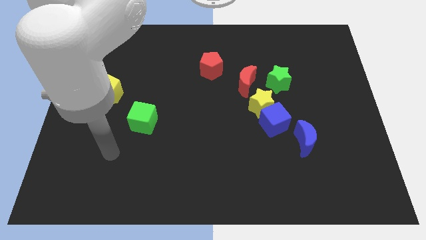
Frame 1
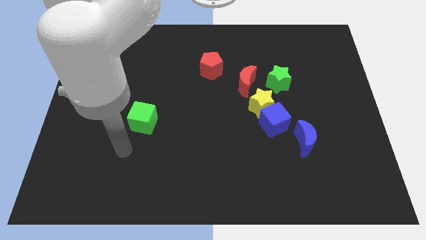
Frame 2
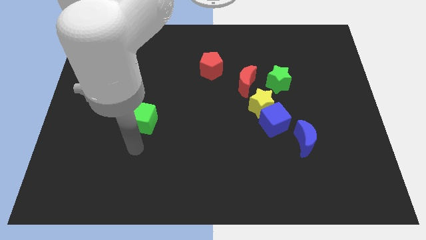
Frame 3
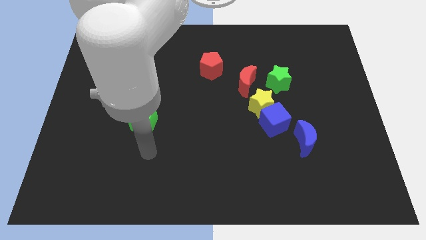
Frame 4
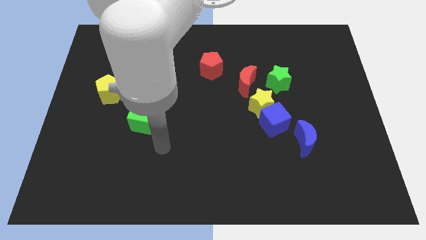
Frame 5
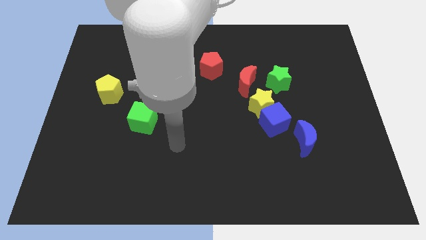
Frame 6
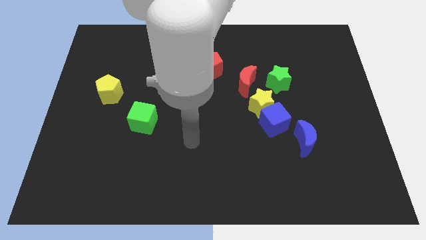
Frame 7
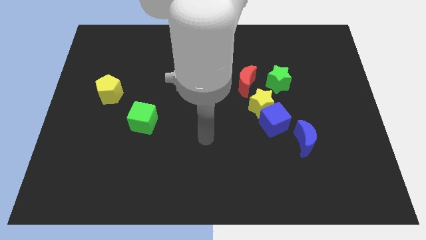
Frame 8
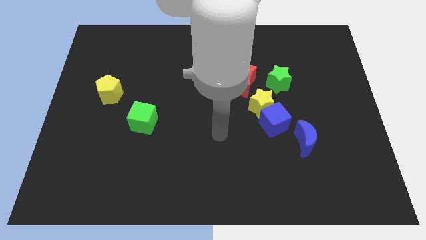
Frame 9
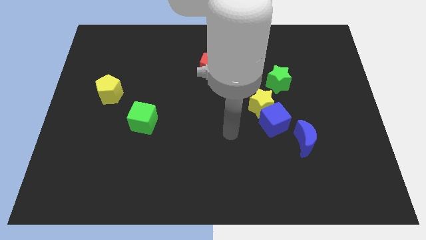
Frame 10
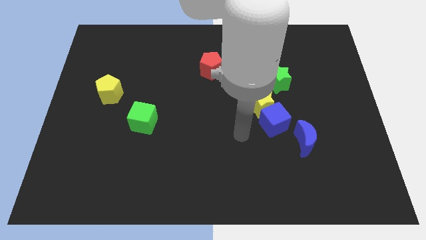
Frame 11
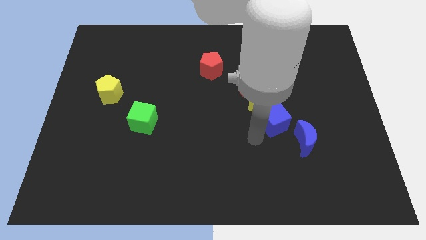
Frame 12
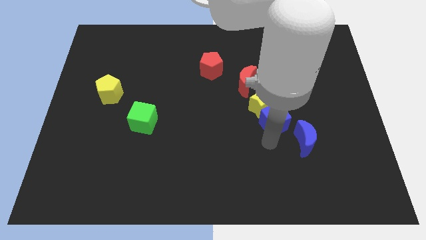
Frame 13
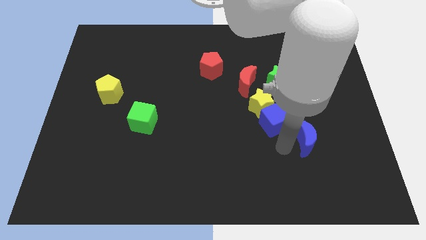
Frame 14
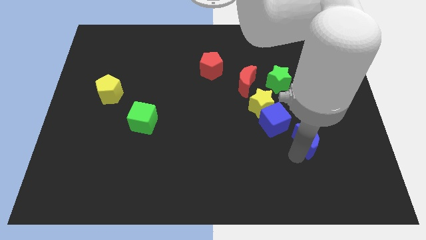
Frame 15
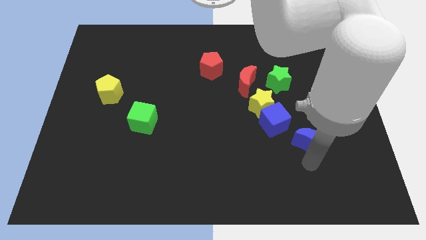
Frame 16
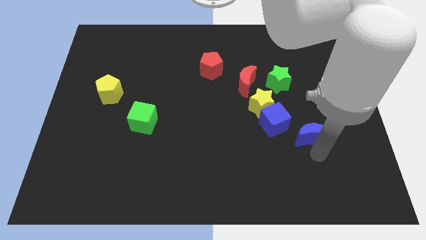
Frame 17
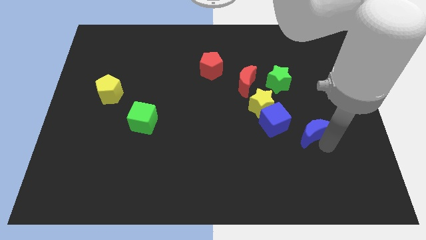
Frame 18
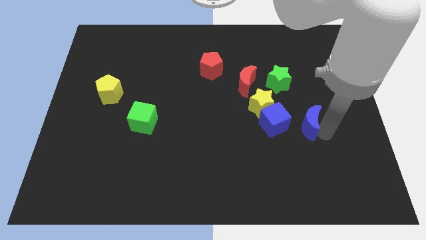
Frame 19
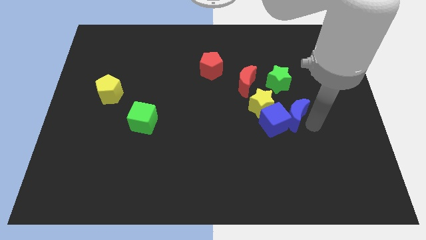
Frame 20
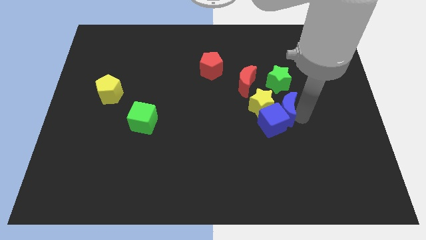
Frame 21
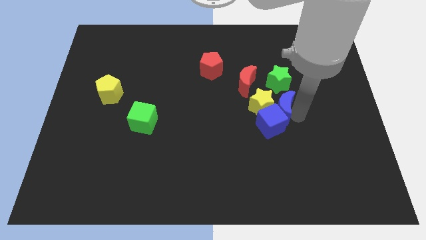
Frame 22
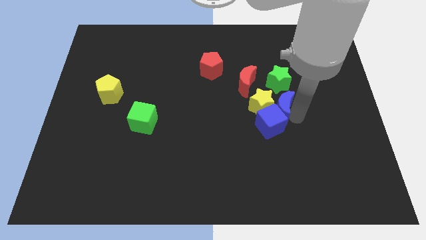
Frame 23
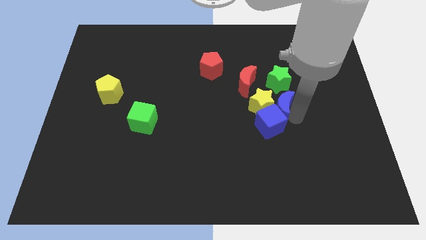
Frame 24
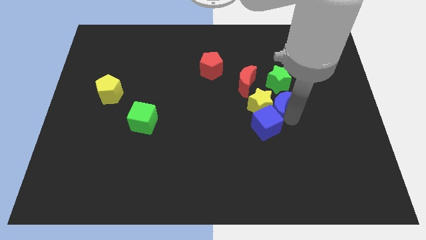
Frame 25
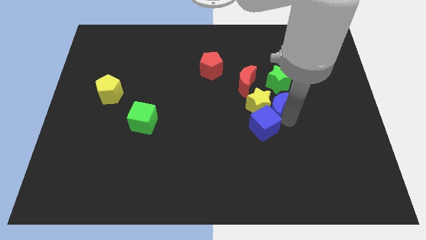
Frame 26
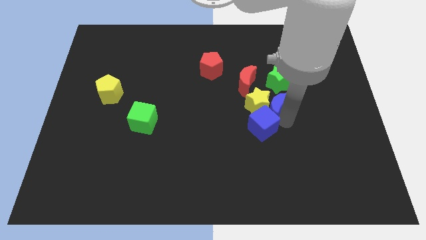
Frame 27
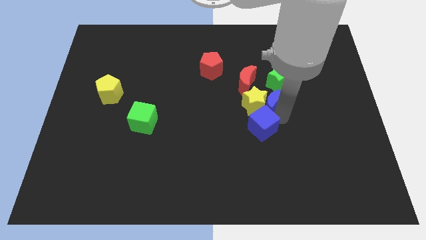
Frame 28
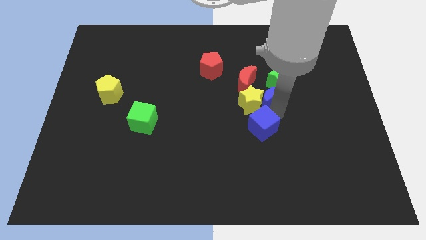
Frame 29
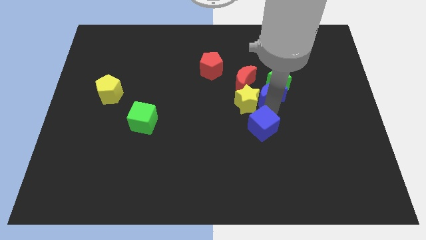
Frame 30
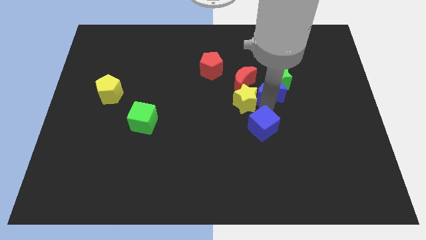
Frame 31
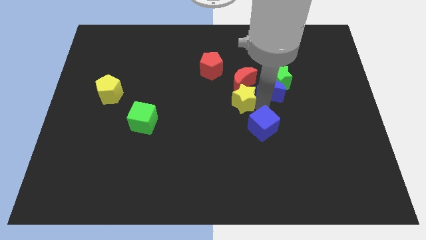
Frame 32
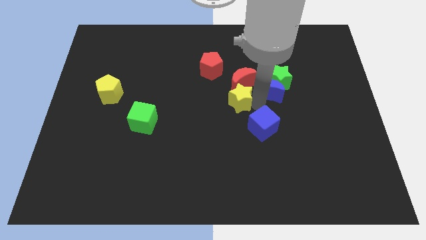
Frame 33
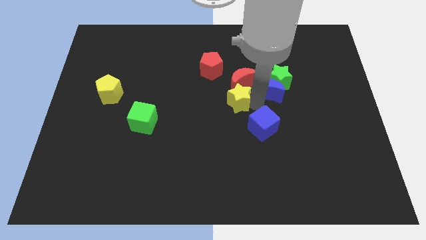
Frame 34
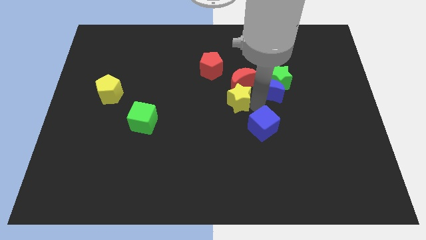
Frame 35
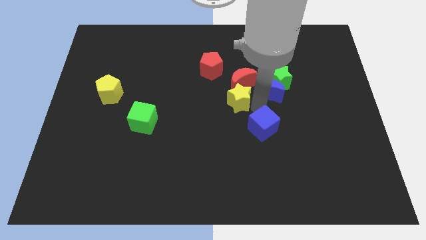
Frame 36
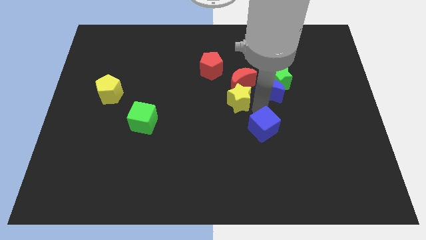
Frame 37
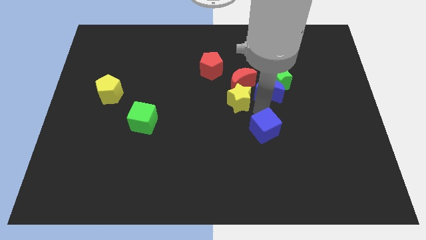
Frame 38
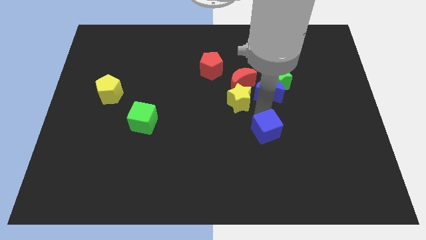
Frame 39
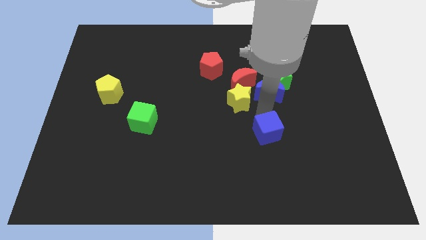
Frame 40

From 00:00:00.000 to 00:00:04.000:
move the blue cube away from the yellow star and blue moon

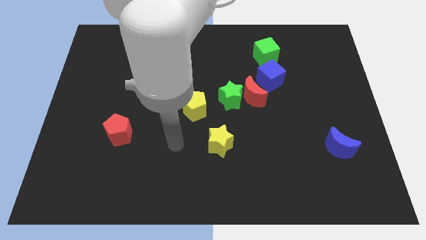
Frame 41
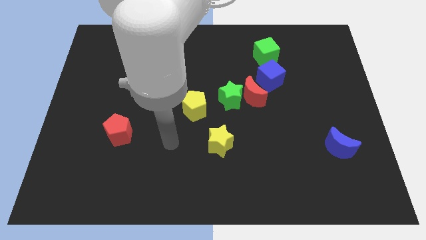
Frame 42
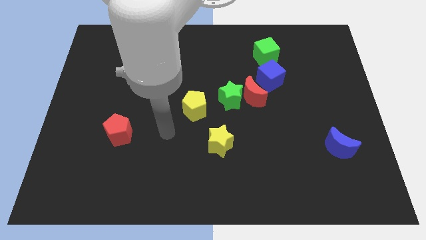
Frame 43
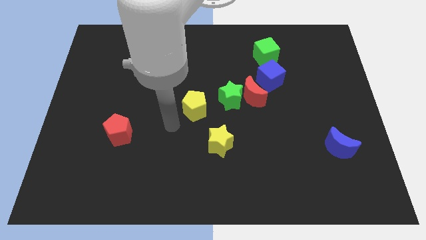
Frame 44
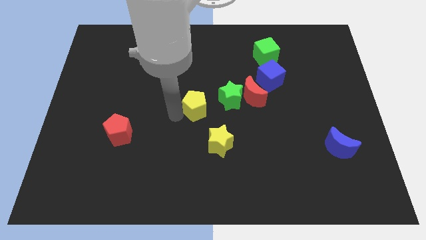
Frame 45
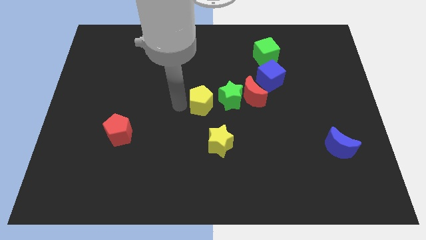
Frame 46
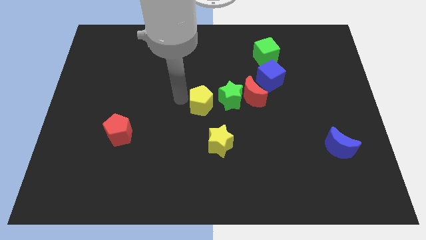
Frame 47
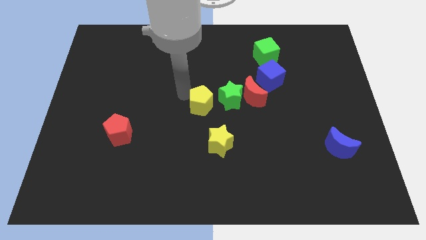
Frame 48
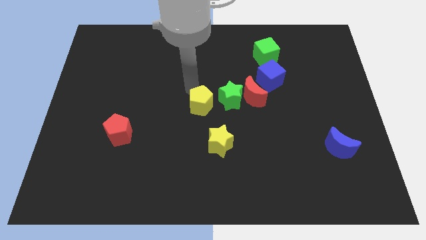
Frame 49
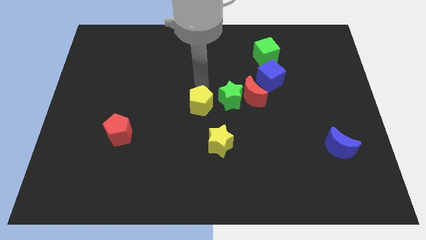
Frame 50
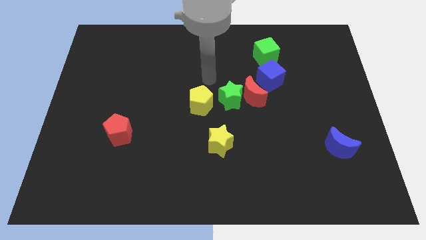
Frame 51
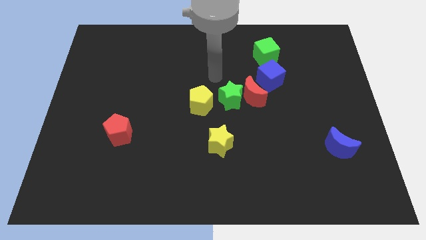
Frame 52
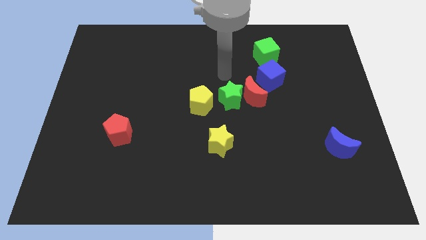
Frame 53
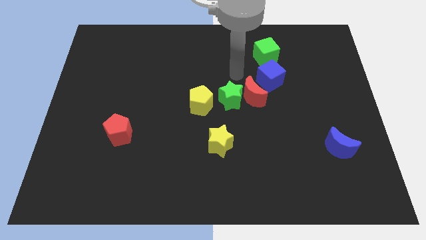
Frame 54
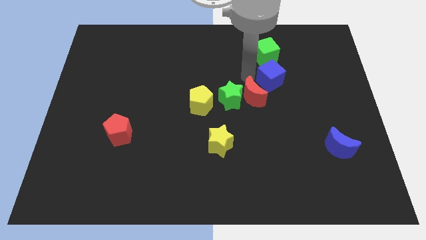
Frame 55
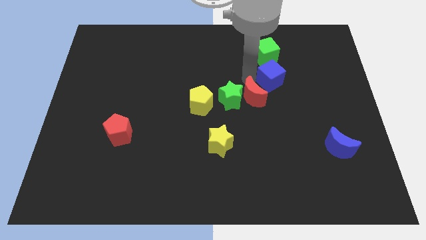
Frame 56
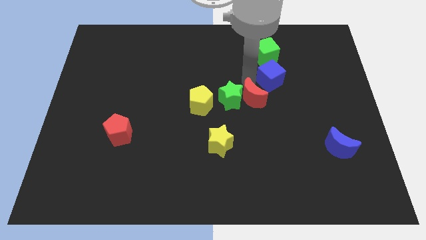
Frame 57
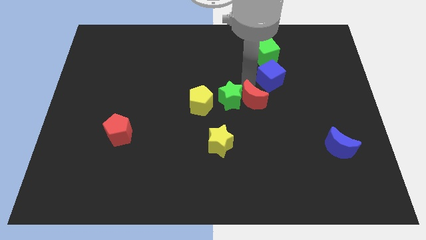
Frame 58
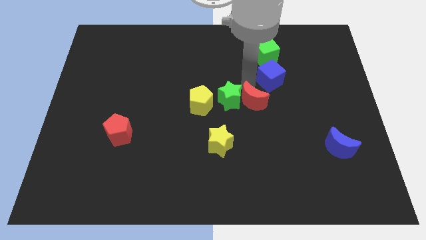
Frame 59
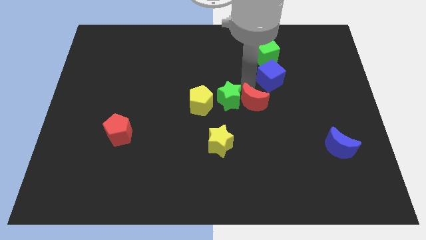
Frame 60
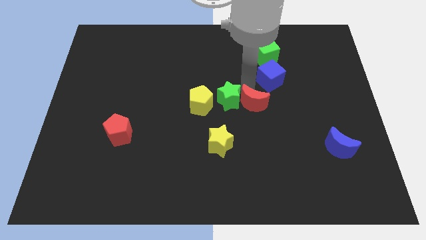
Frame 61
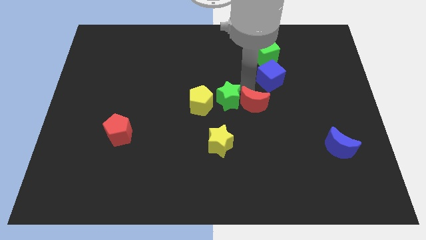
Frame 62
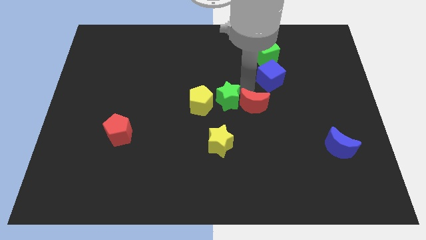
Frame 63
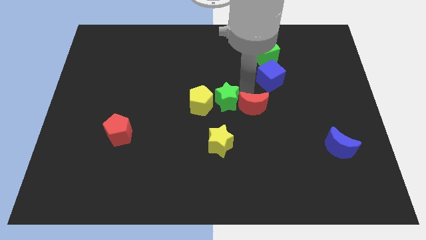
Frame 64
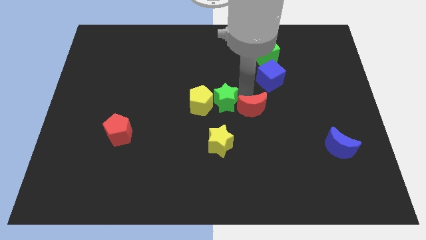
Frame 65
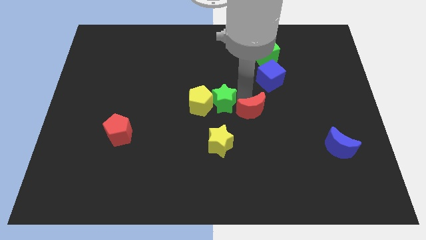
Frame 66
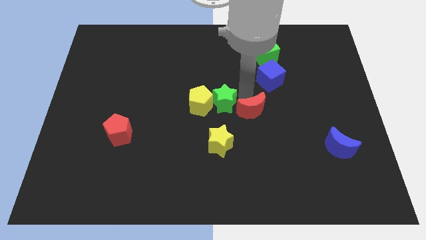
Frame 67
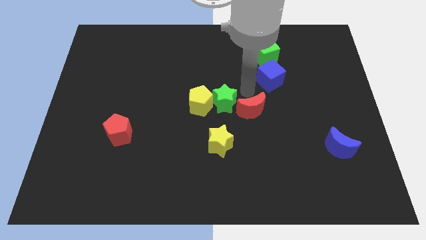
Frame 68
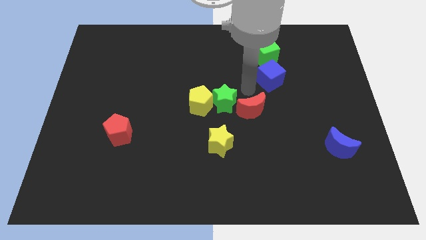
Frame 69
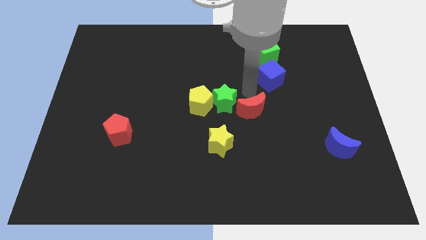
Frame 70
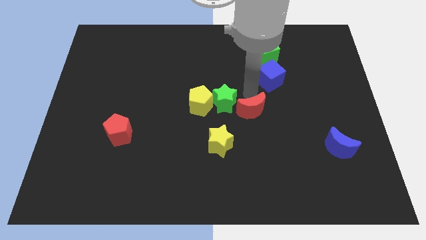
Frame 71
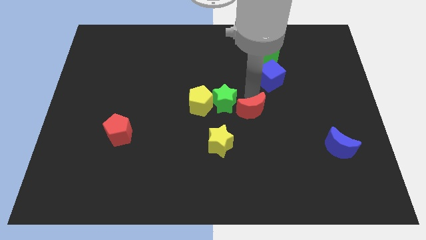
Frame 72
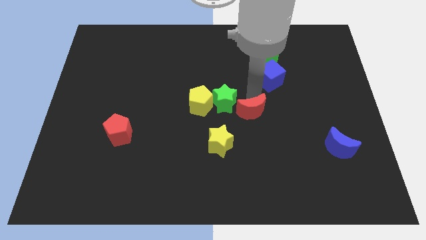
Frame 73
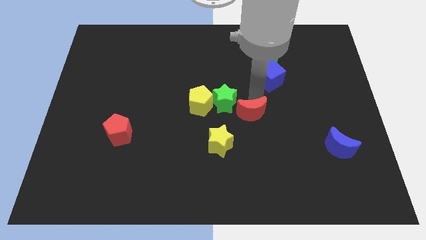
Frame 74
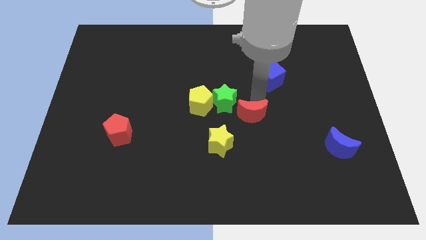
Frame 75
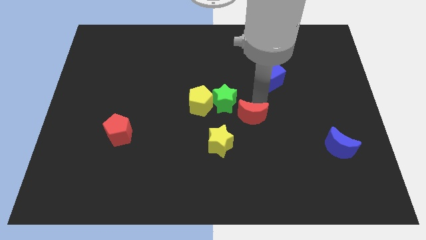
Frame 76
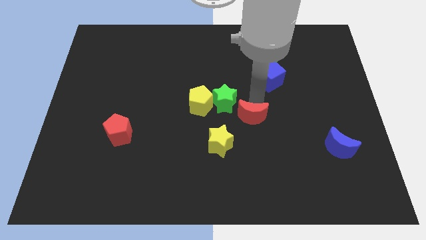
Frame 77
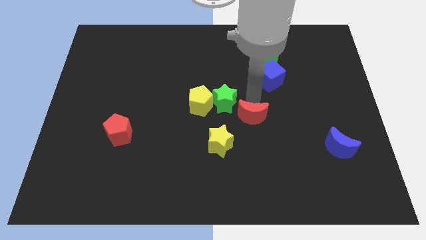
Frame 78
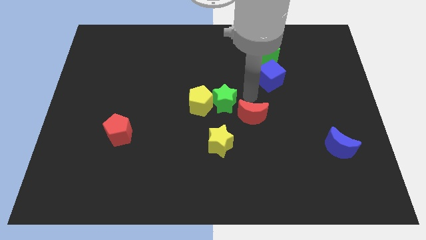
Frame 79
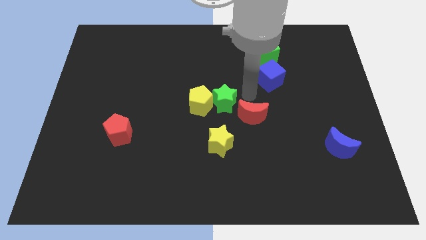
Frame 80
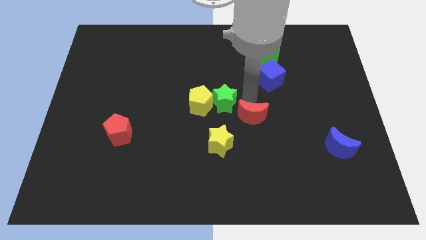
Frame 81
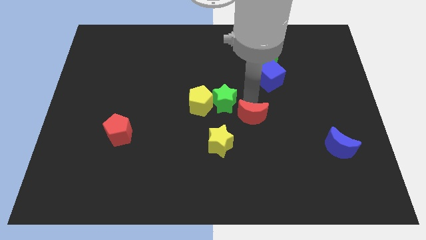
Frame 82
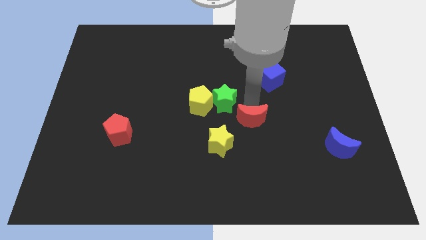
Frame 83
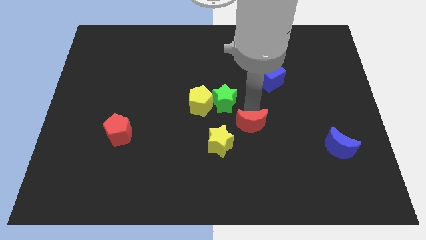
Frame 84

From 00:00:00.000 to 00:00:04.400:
separate the red moon from the green star and blue cube

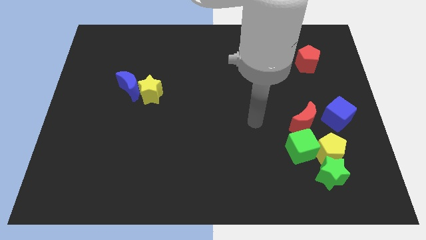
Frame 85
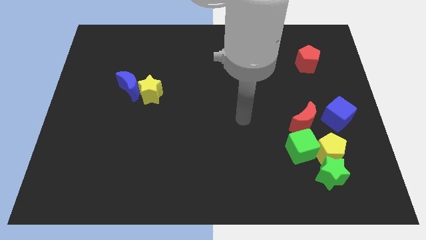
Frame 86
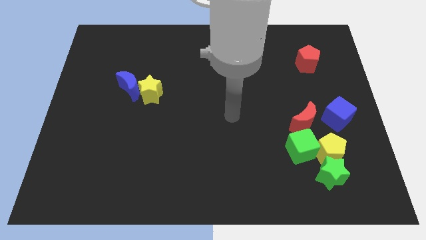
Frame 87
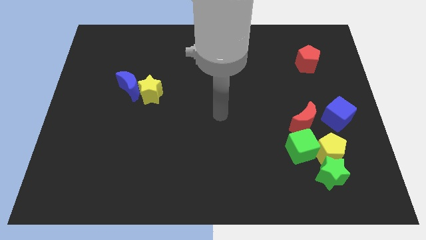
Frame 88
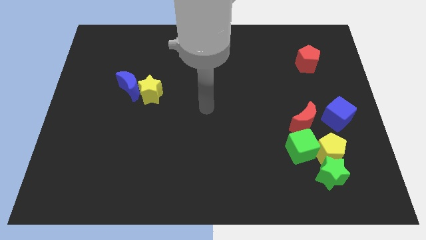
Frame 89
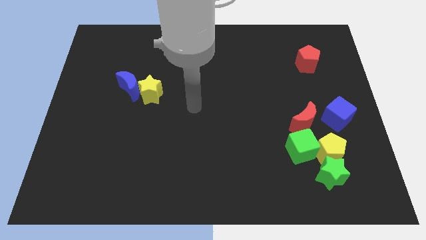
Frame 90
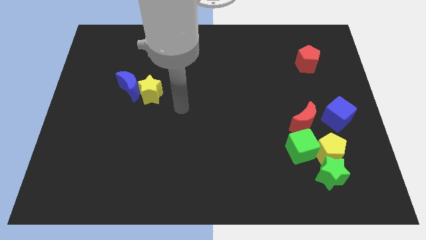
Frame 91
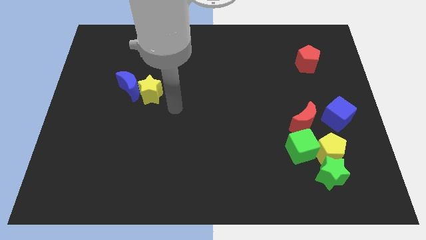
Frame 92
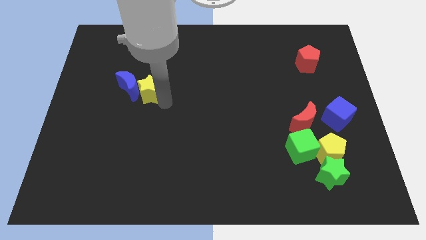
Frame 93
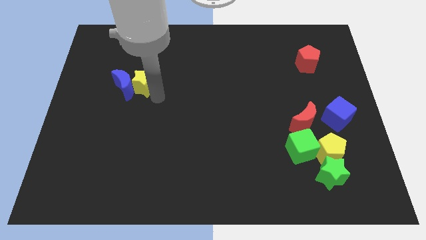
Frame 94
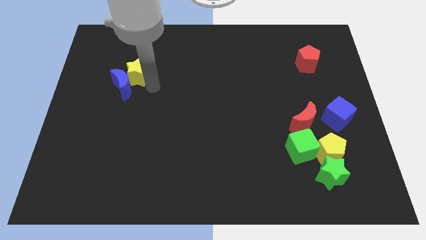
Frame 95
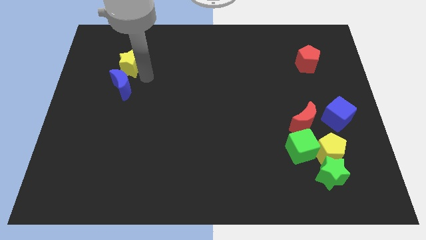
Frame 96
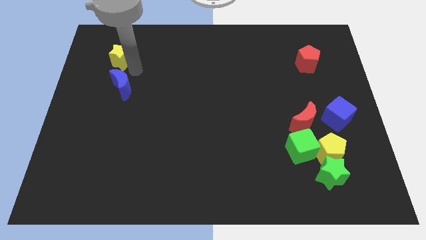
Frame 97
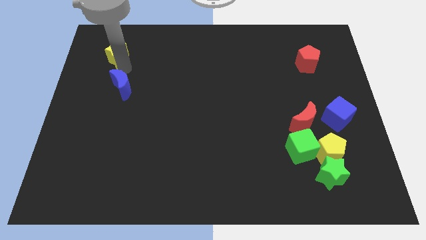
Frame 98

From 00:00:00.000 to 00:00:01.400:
move the blue moon away from the yellow star
